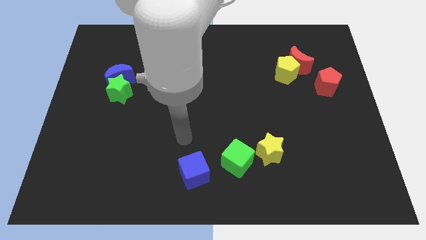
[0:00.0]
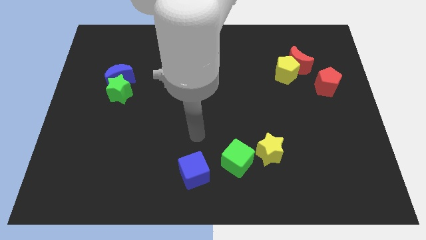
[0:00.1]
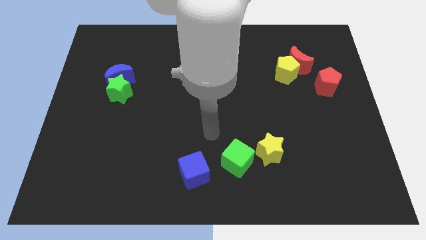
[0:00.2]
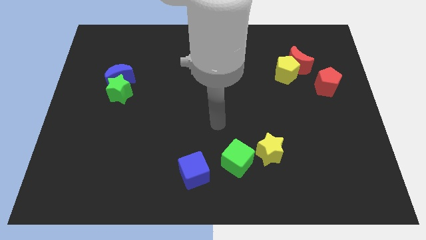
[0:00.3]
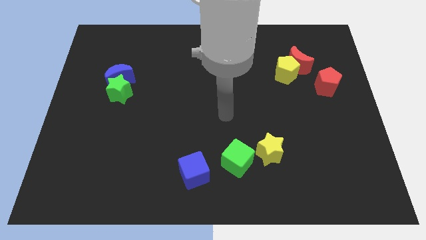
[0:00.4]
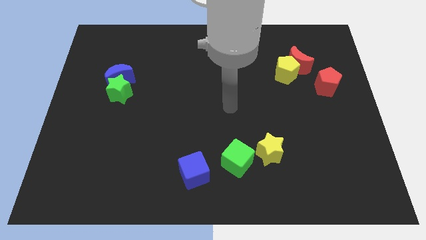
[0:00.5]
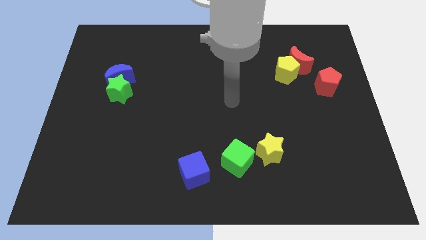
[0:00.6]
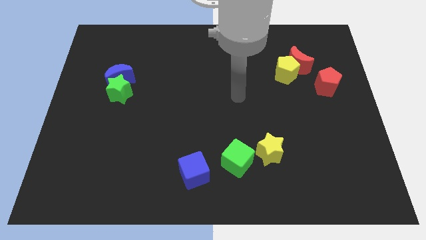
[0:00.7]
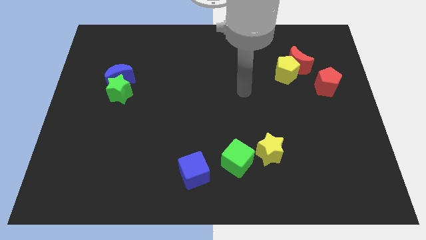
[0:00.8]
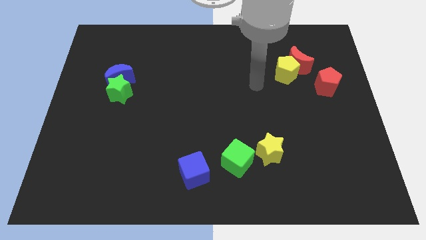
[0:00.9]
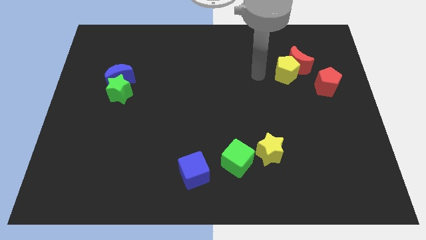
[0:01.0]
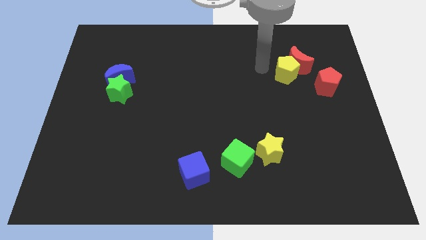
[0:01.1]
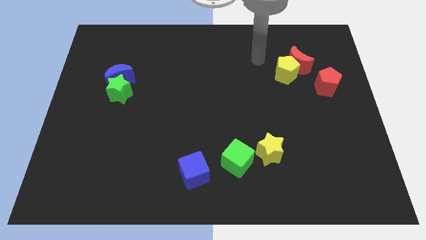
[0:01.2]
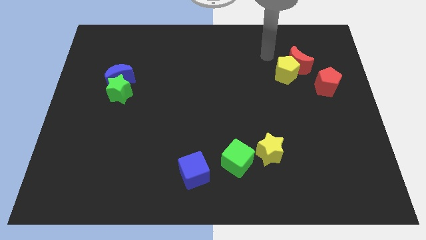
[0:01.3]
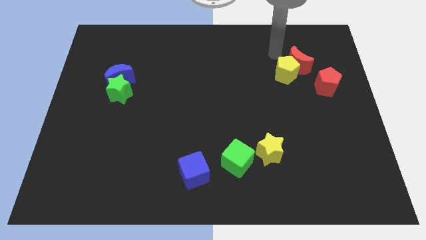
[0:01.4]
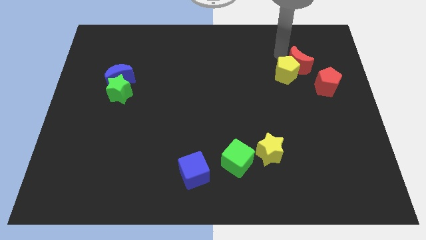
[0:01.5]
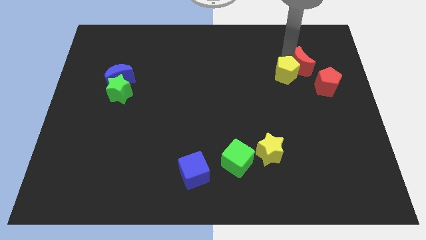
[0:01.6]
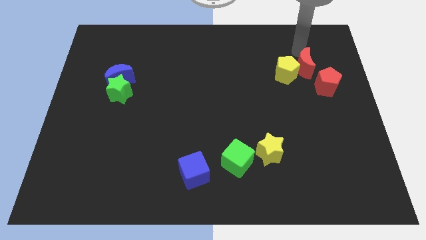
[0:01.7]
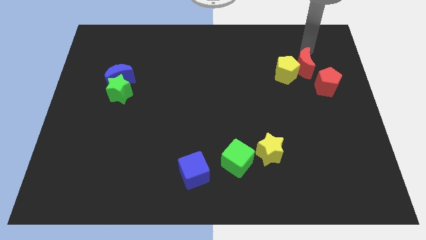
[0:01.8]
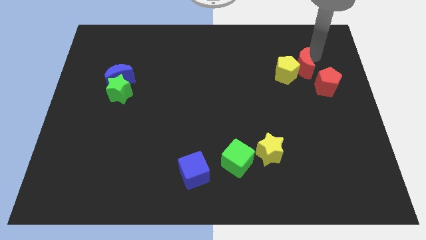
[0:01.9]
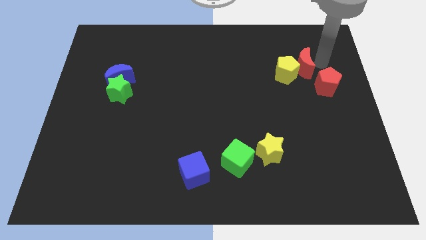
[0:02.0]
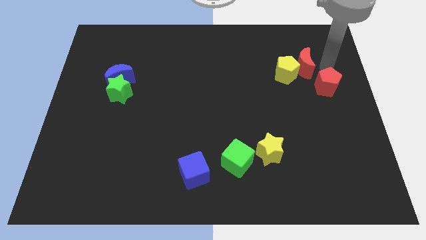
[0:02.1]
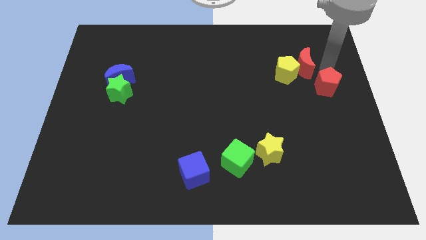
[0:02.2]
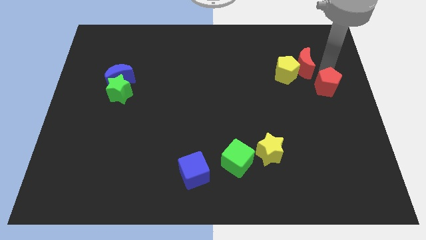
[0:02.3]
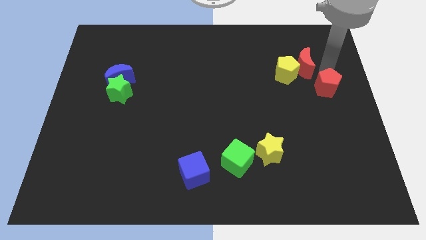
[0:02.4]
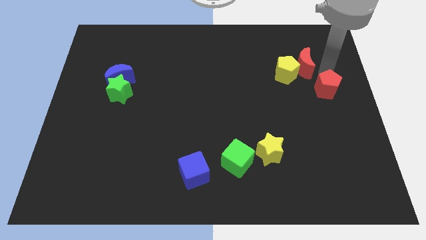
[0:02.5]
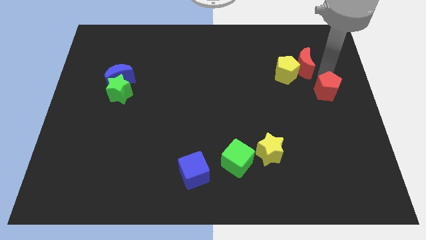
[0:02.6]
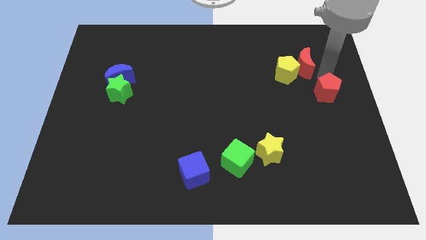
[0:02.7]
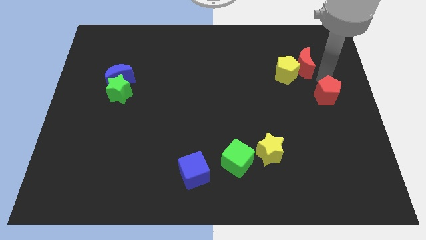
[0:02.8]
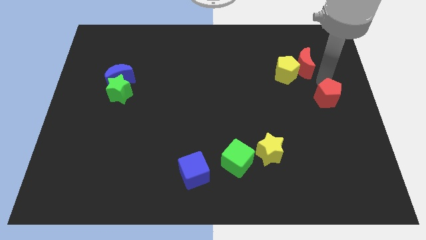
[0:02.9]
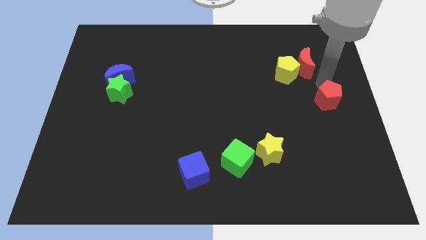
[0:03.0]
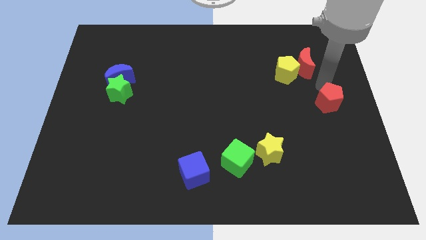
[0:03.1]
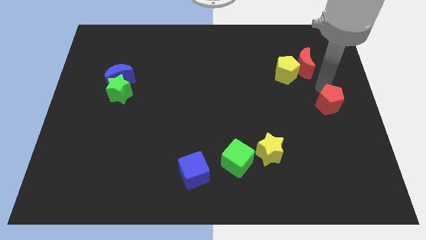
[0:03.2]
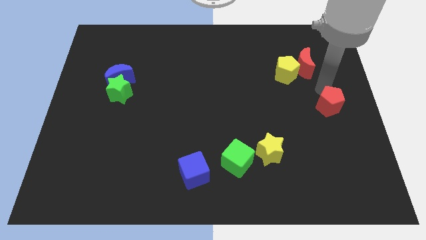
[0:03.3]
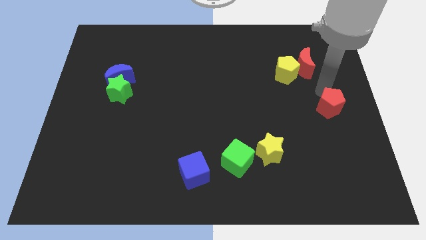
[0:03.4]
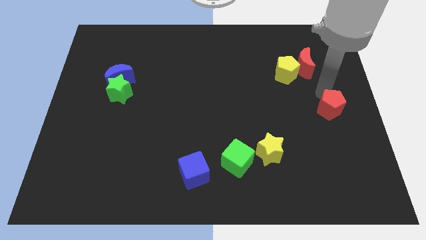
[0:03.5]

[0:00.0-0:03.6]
slightly move the red pentagon downwards

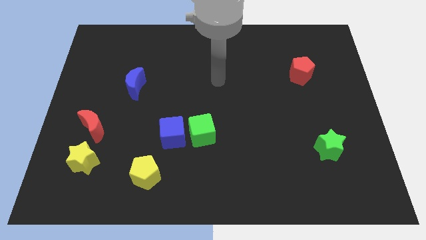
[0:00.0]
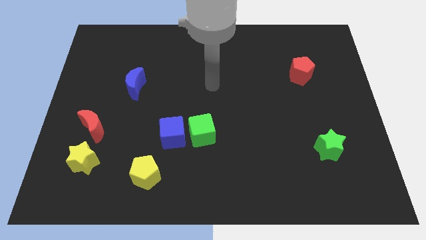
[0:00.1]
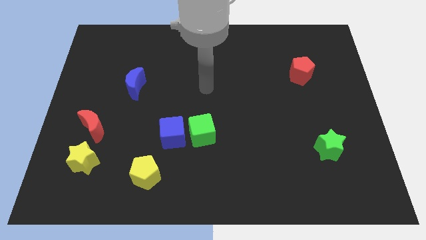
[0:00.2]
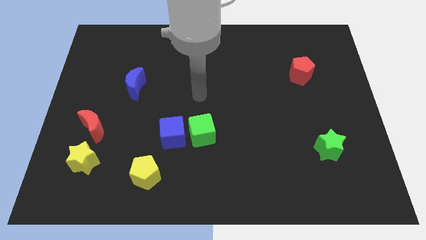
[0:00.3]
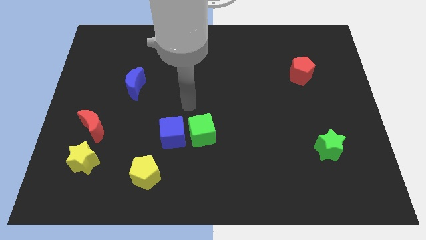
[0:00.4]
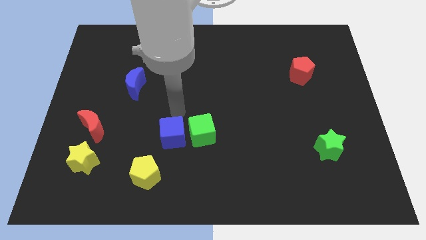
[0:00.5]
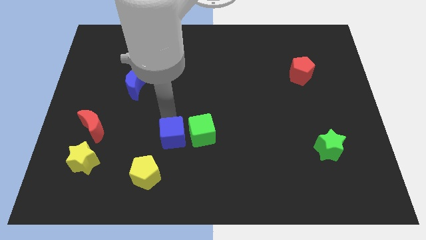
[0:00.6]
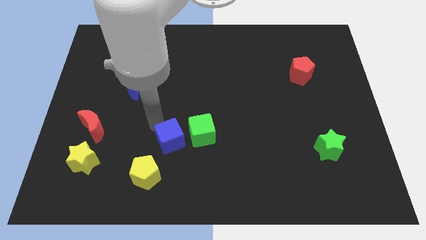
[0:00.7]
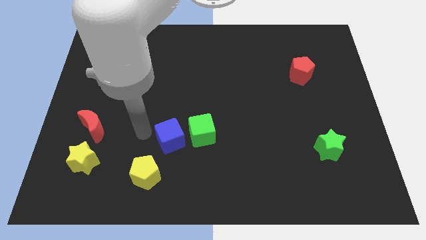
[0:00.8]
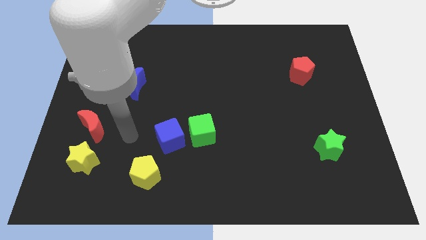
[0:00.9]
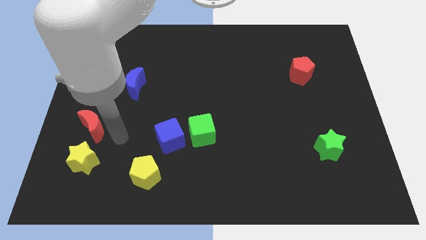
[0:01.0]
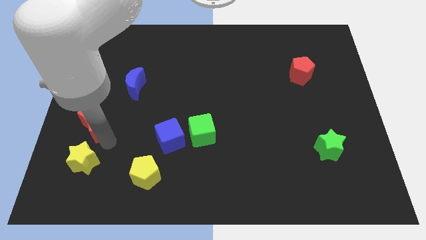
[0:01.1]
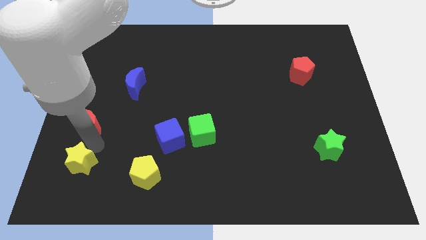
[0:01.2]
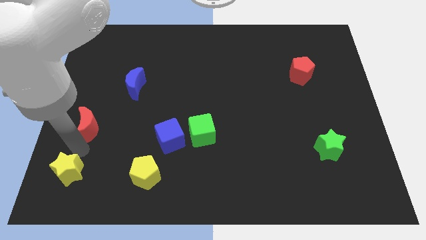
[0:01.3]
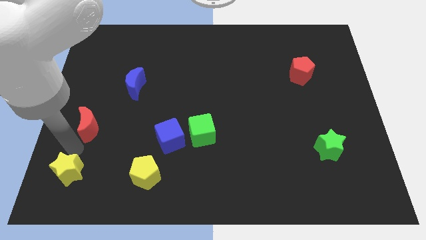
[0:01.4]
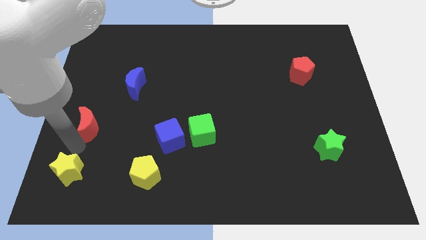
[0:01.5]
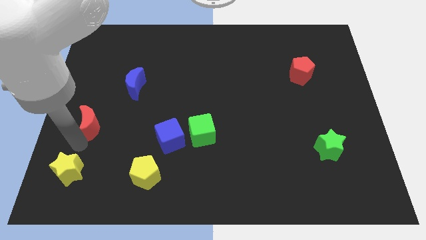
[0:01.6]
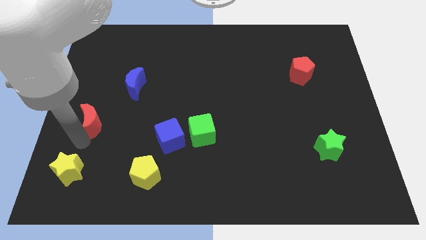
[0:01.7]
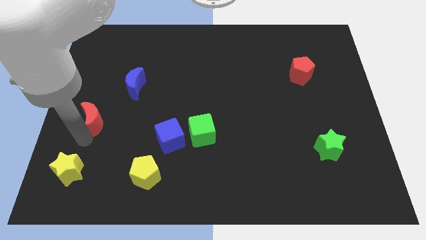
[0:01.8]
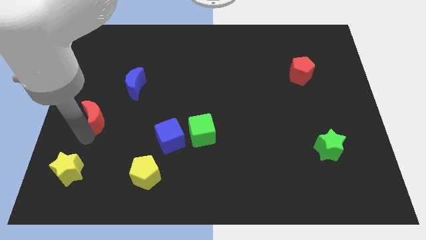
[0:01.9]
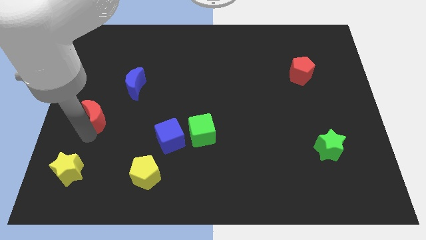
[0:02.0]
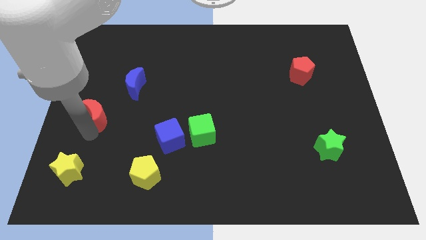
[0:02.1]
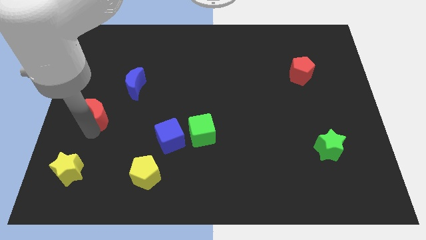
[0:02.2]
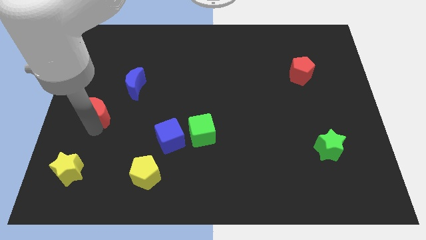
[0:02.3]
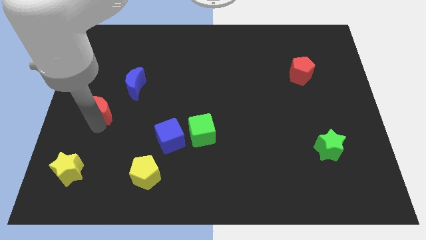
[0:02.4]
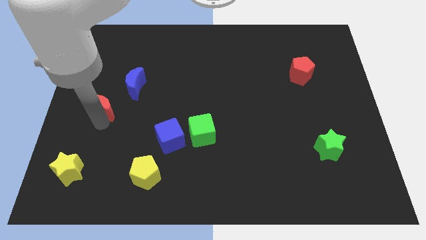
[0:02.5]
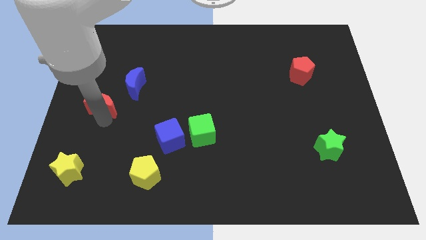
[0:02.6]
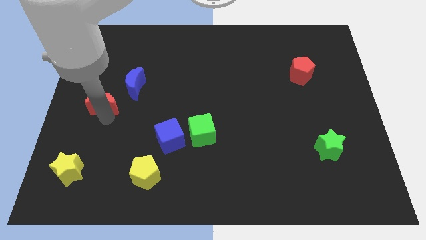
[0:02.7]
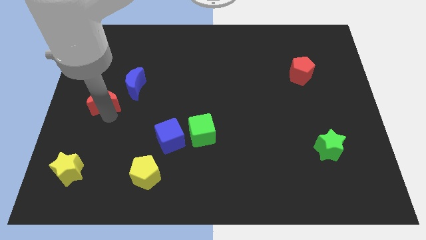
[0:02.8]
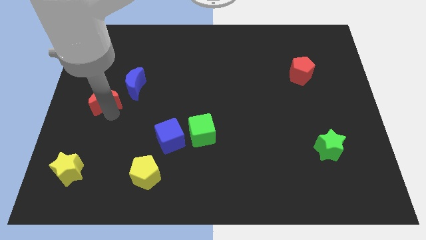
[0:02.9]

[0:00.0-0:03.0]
move the red moon slightly upwards

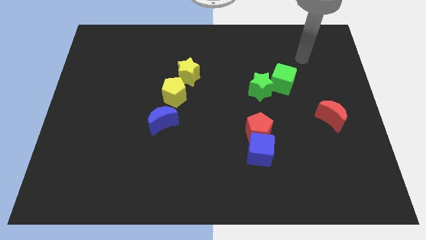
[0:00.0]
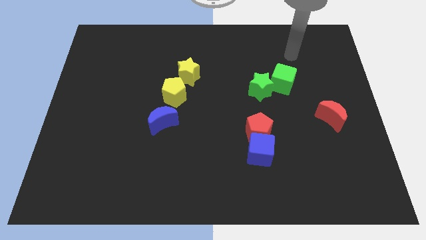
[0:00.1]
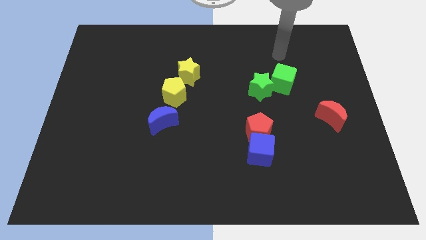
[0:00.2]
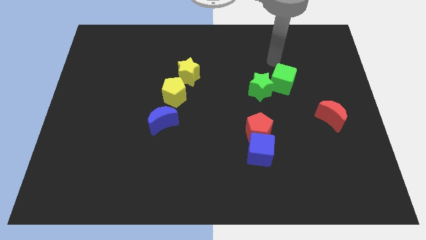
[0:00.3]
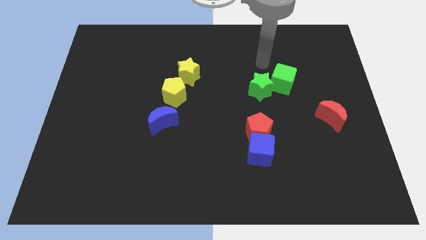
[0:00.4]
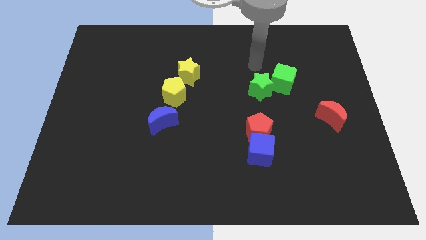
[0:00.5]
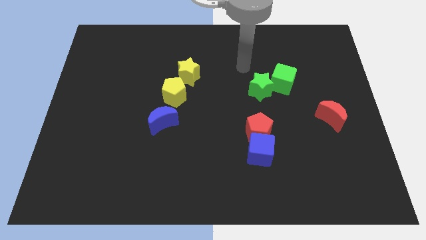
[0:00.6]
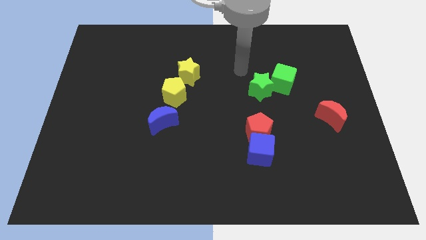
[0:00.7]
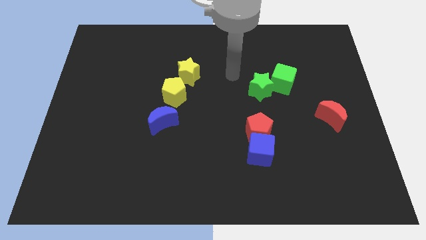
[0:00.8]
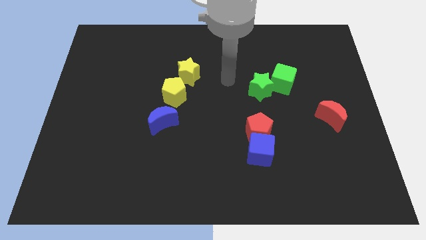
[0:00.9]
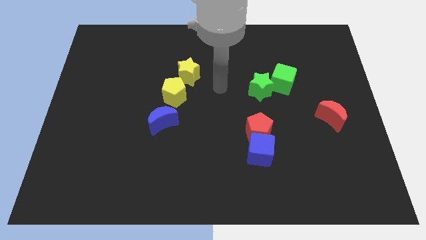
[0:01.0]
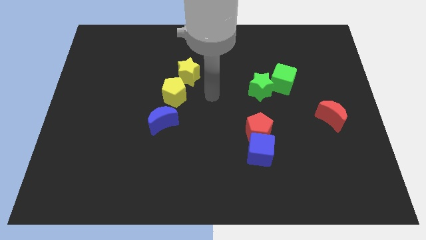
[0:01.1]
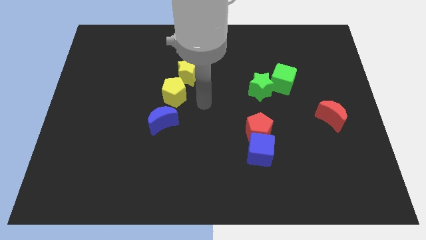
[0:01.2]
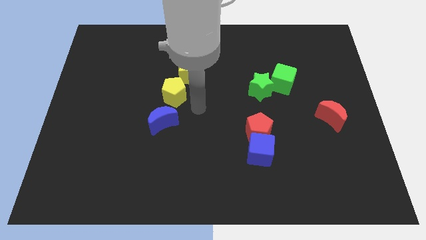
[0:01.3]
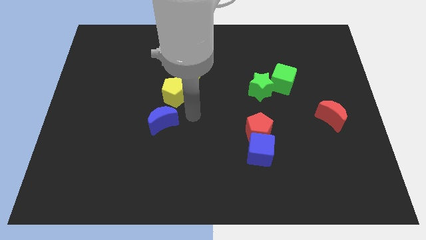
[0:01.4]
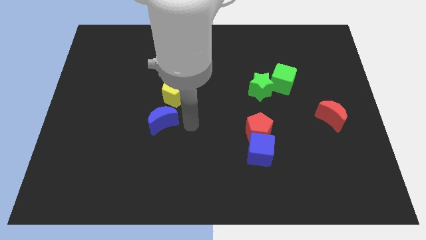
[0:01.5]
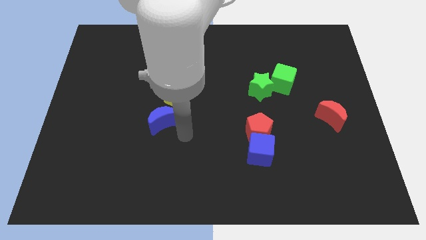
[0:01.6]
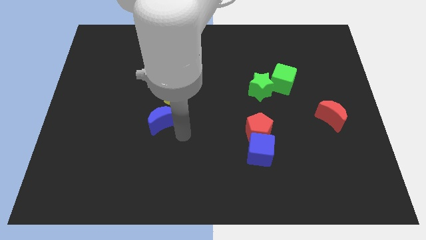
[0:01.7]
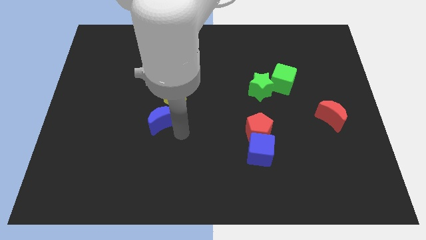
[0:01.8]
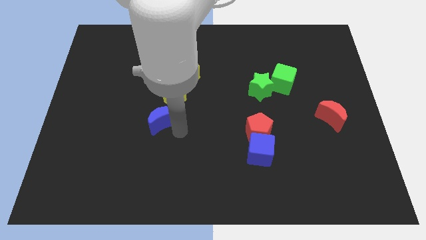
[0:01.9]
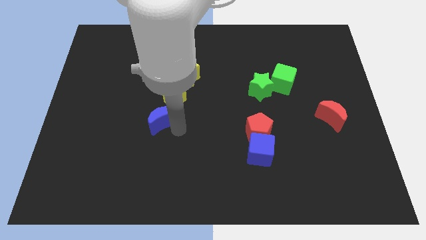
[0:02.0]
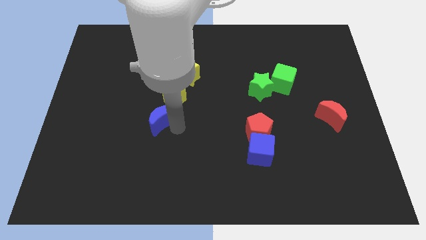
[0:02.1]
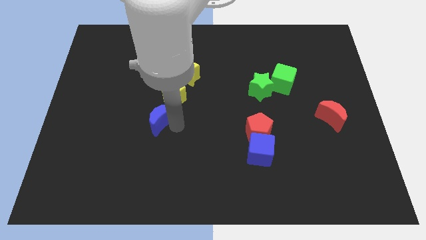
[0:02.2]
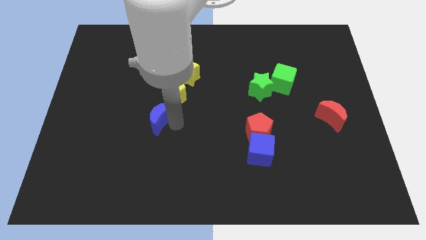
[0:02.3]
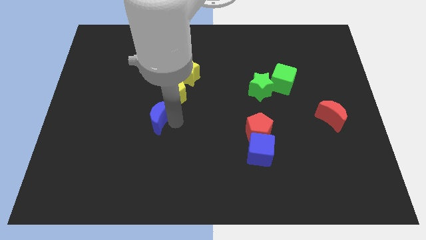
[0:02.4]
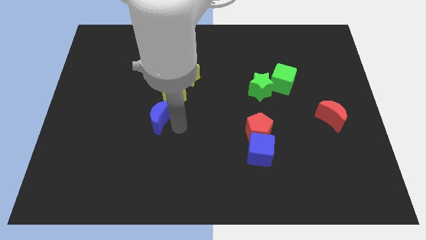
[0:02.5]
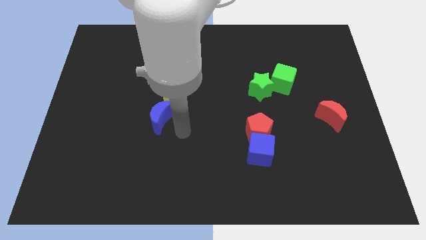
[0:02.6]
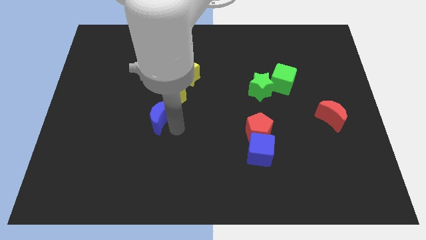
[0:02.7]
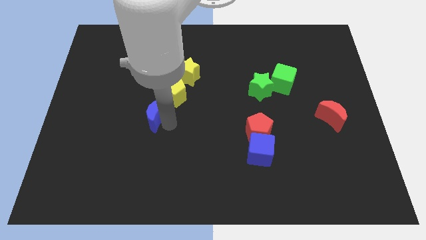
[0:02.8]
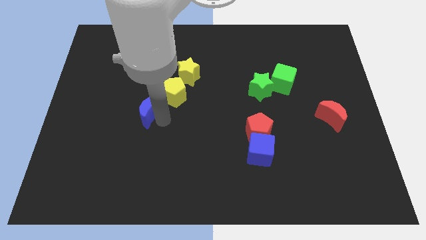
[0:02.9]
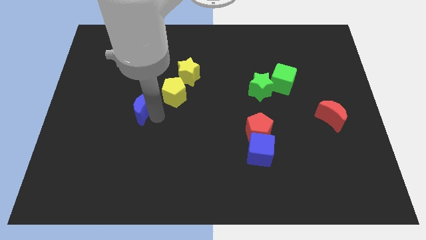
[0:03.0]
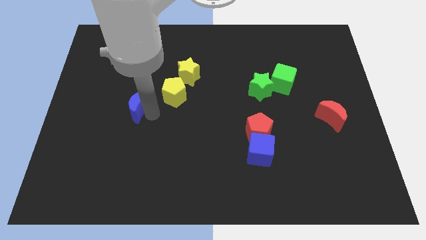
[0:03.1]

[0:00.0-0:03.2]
move the blue moon upwards and then to the left a bit
